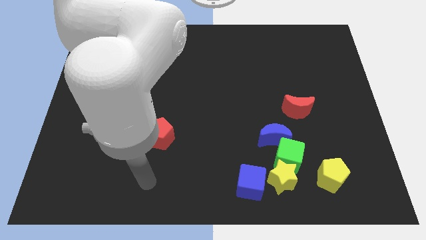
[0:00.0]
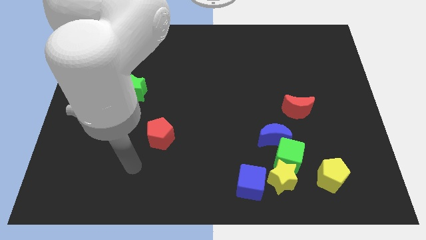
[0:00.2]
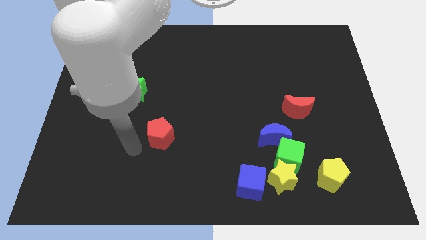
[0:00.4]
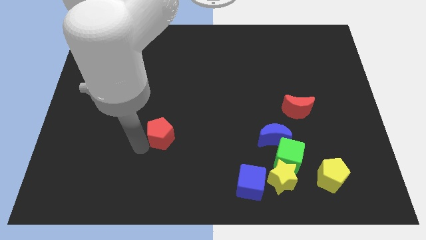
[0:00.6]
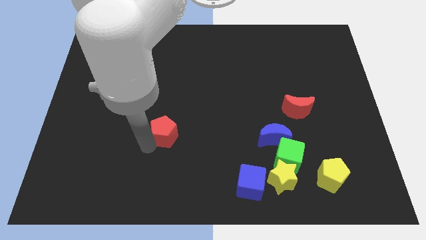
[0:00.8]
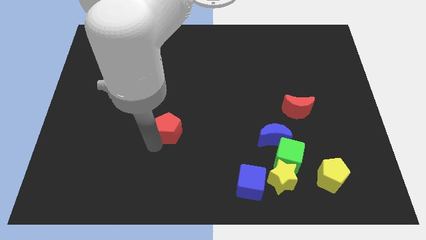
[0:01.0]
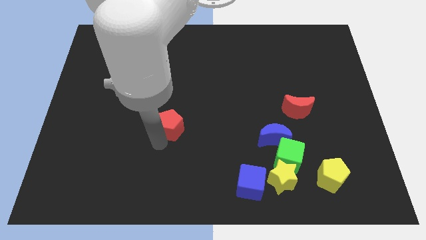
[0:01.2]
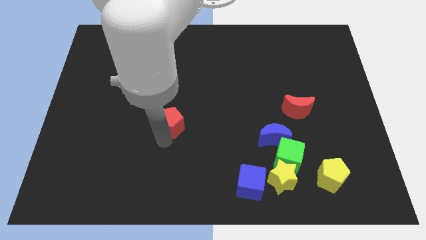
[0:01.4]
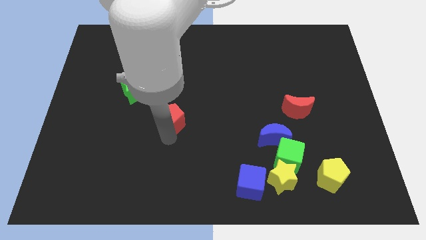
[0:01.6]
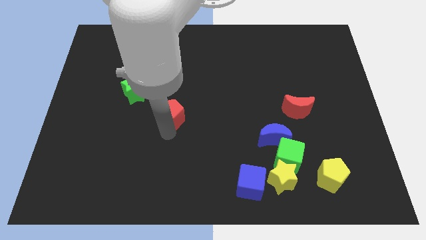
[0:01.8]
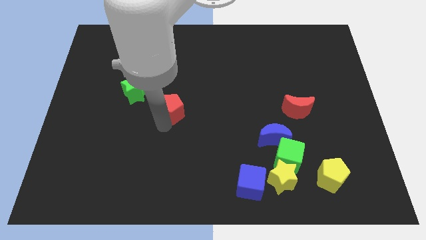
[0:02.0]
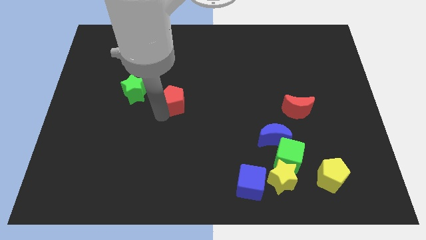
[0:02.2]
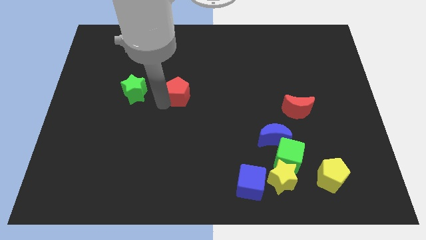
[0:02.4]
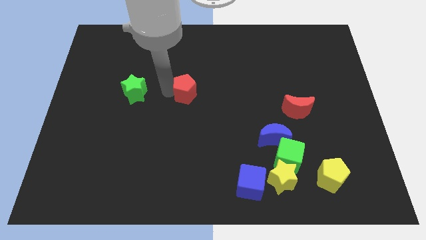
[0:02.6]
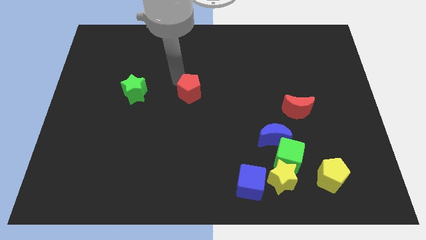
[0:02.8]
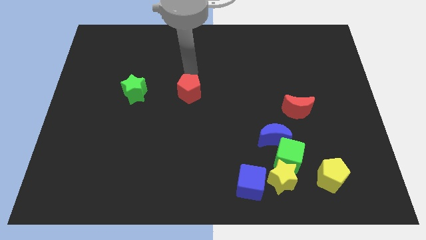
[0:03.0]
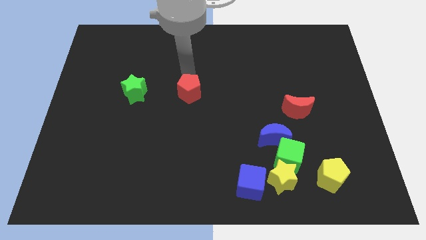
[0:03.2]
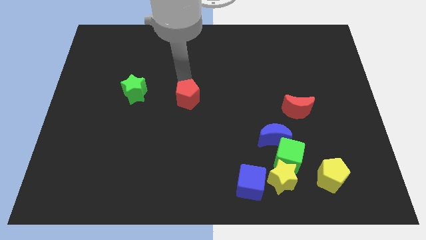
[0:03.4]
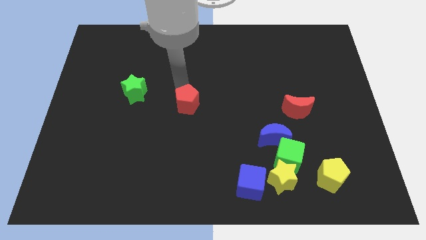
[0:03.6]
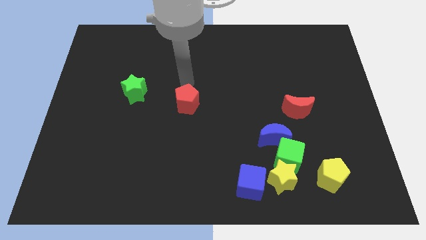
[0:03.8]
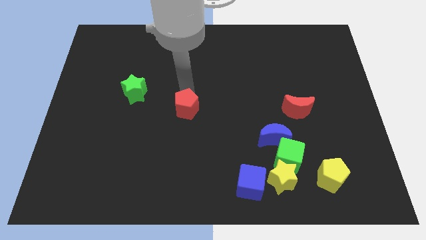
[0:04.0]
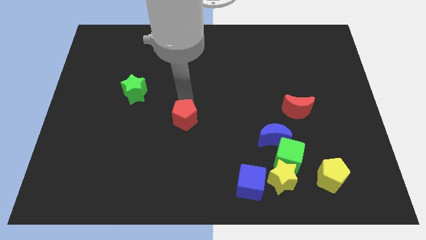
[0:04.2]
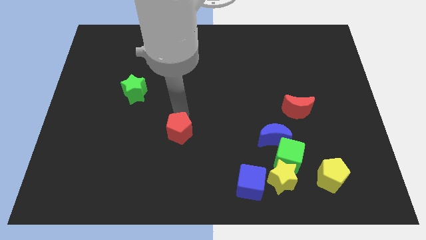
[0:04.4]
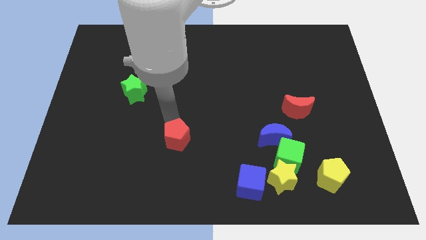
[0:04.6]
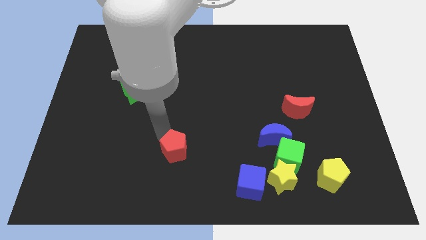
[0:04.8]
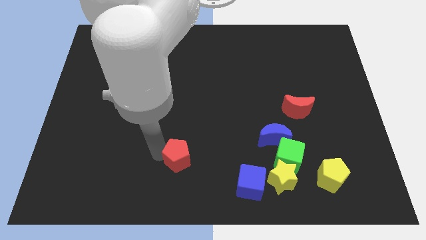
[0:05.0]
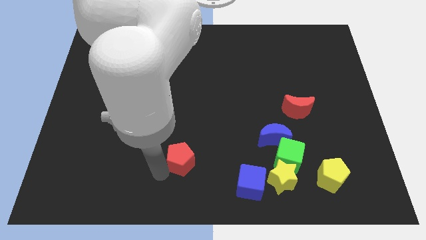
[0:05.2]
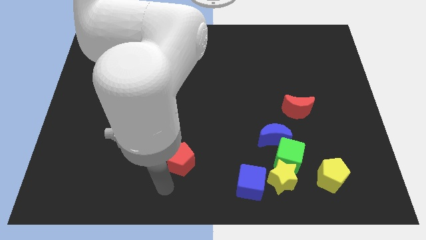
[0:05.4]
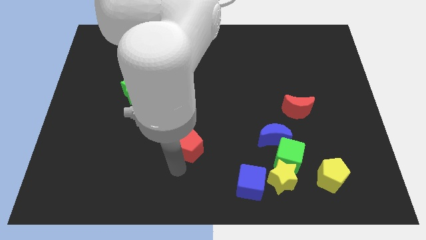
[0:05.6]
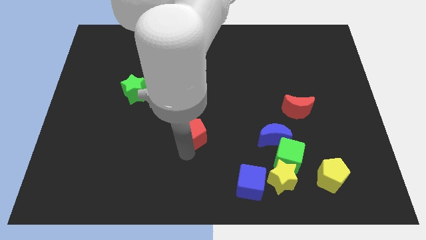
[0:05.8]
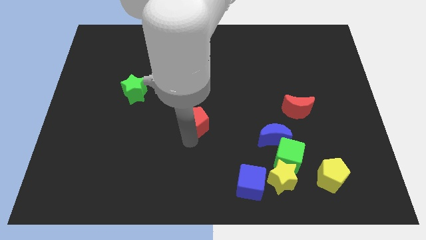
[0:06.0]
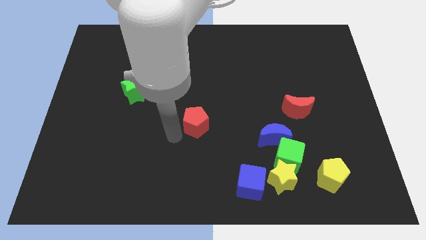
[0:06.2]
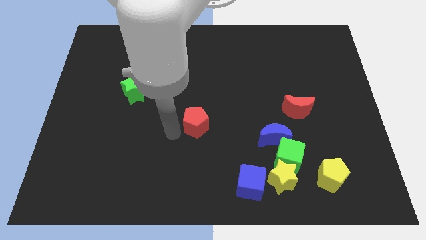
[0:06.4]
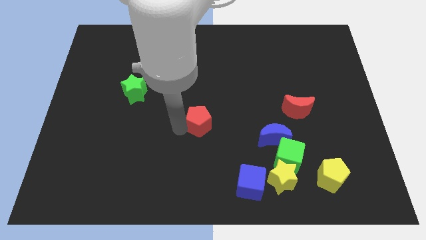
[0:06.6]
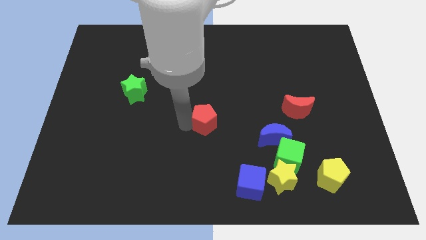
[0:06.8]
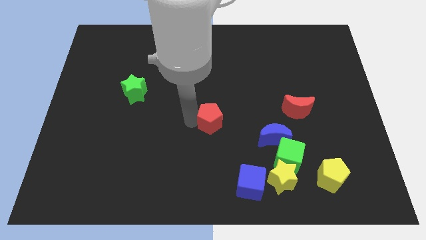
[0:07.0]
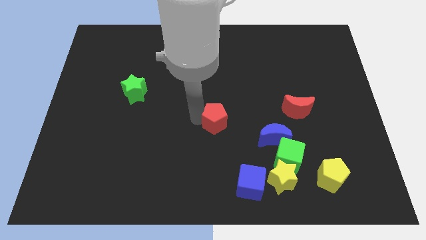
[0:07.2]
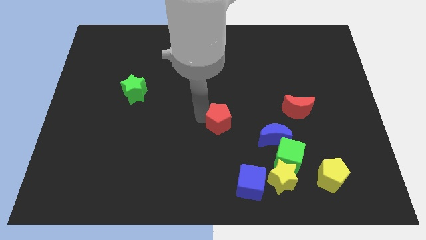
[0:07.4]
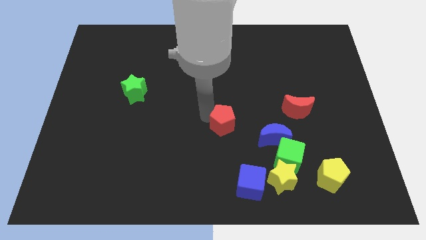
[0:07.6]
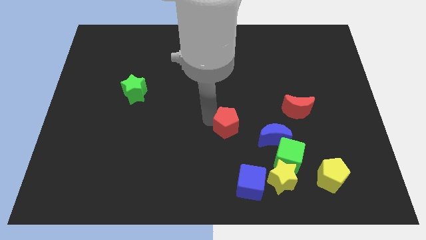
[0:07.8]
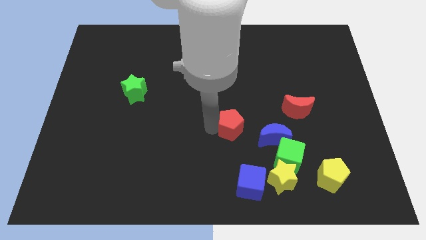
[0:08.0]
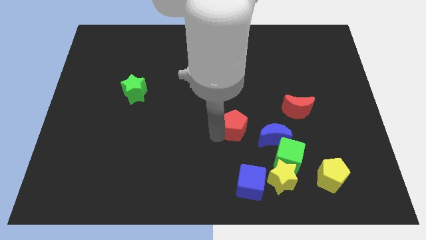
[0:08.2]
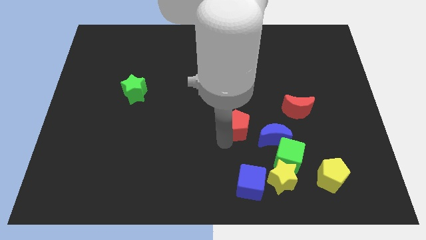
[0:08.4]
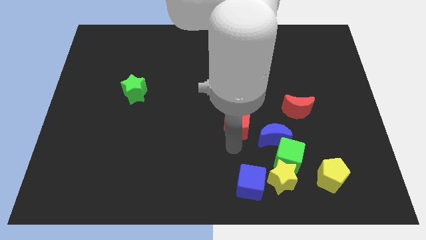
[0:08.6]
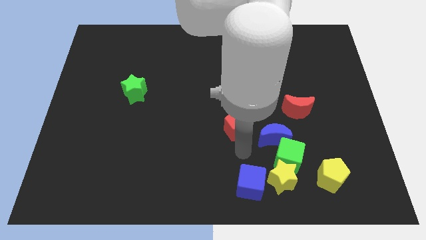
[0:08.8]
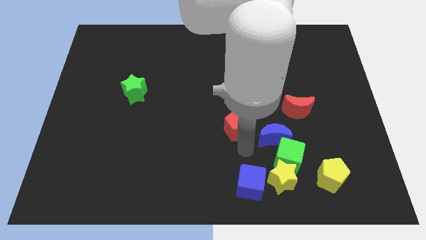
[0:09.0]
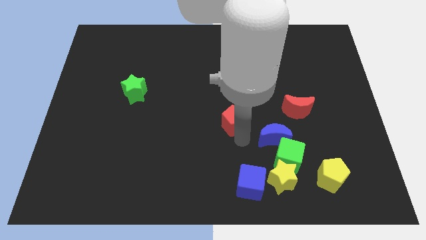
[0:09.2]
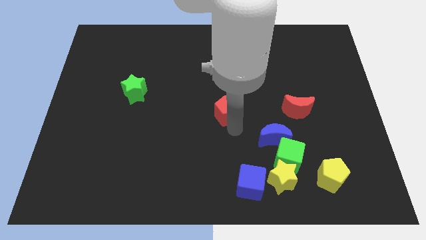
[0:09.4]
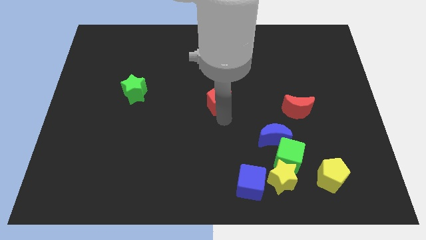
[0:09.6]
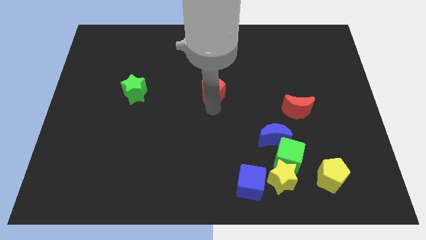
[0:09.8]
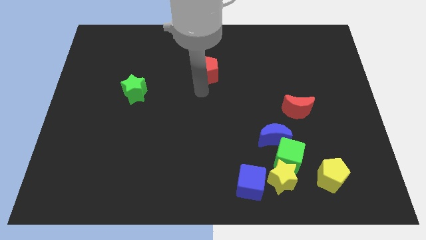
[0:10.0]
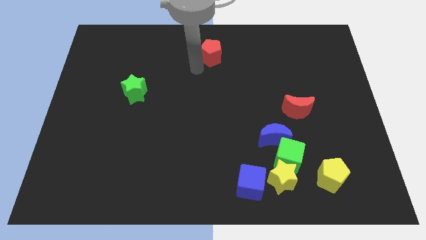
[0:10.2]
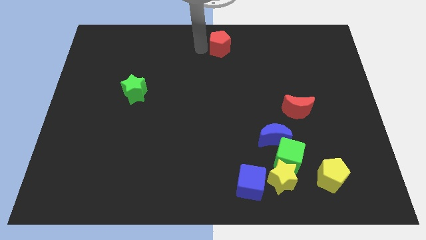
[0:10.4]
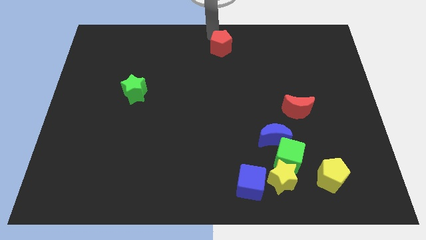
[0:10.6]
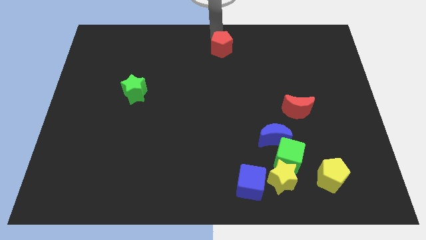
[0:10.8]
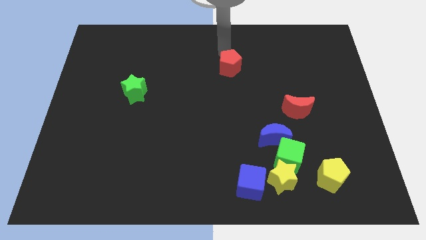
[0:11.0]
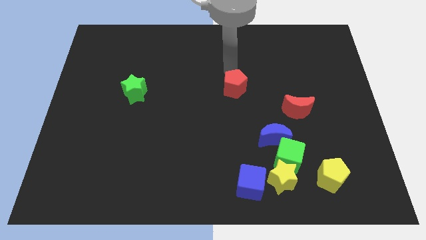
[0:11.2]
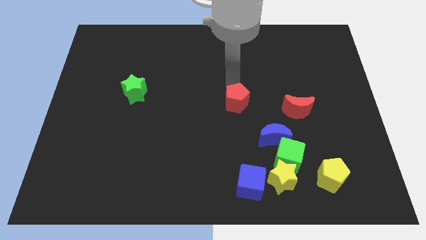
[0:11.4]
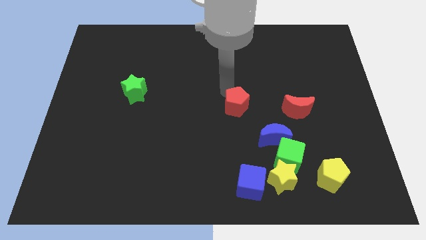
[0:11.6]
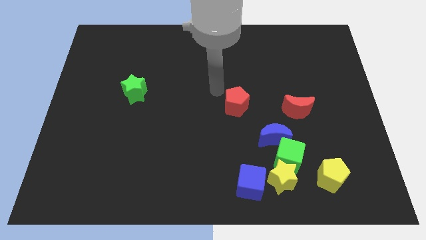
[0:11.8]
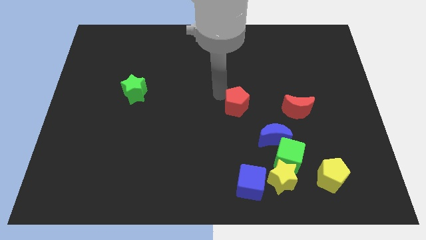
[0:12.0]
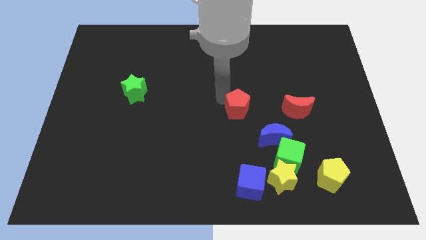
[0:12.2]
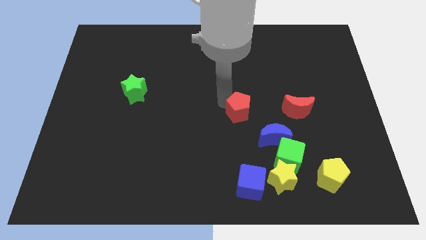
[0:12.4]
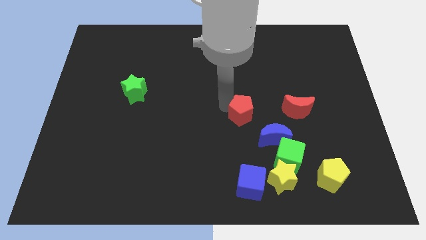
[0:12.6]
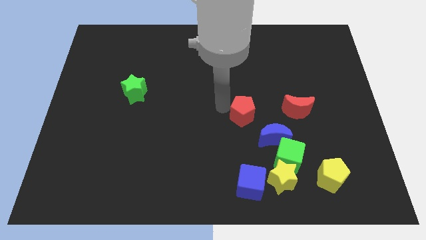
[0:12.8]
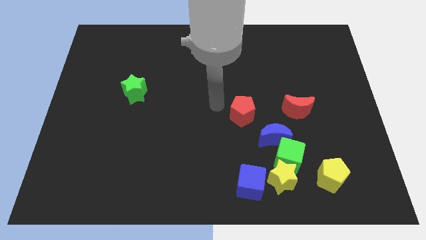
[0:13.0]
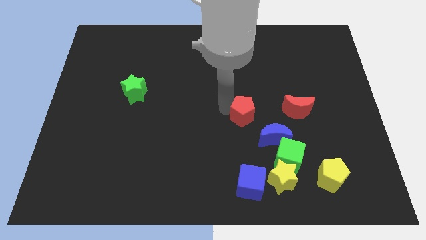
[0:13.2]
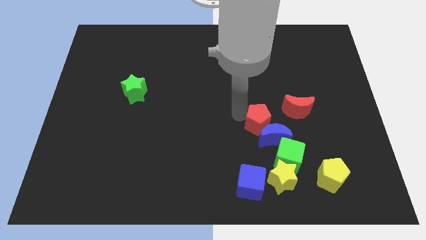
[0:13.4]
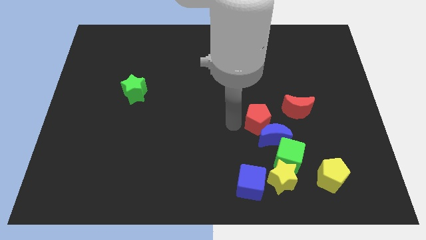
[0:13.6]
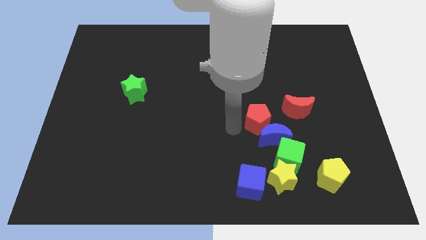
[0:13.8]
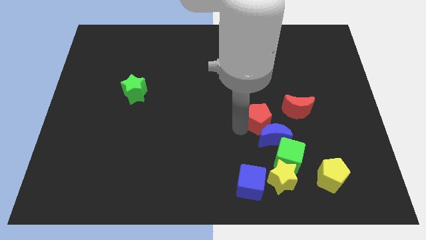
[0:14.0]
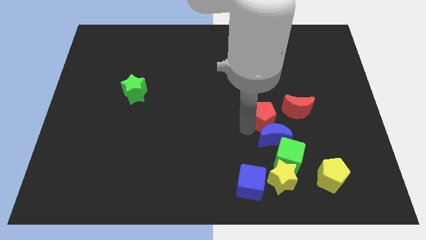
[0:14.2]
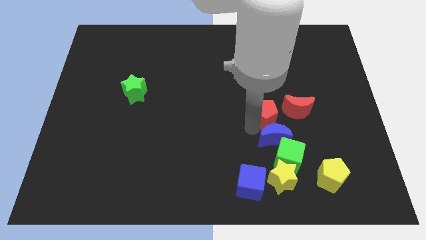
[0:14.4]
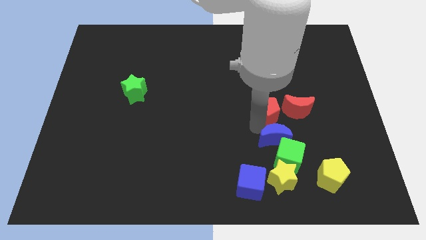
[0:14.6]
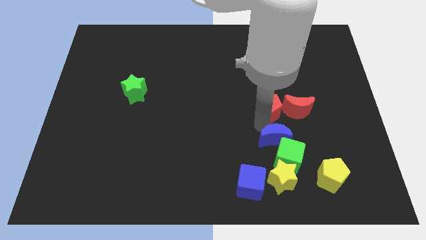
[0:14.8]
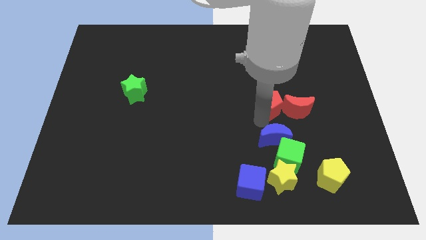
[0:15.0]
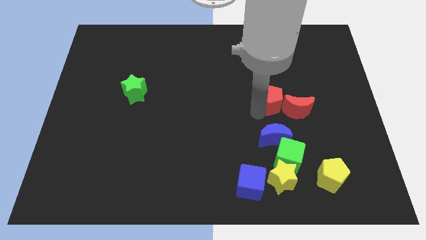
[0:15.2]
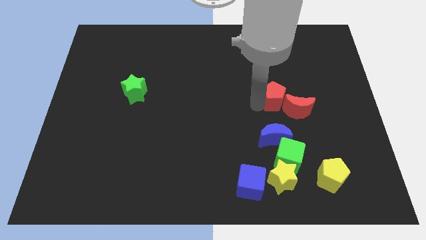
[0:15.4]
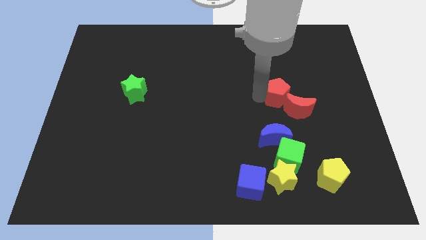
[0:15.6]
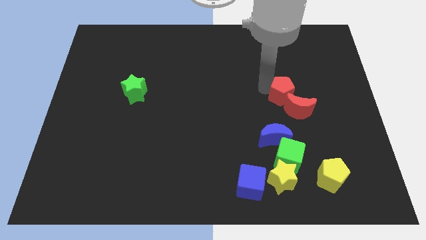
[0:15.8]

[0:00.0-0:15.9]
slide the red pentagon close to the red moon
